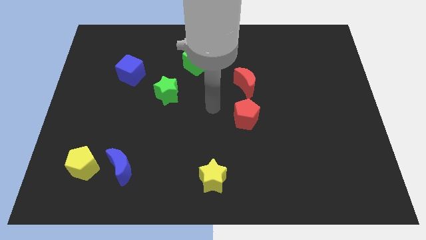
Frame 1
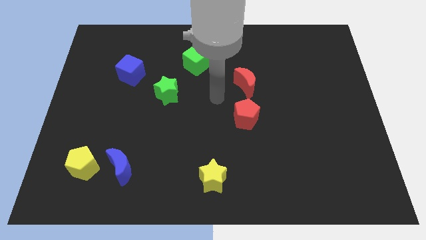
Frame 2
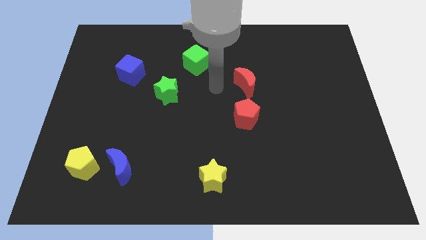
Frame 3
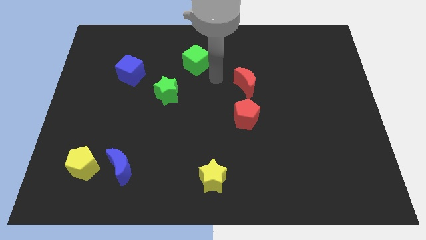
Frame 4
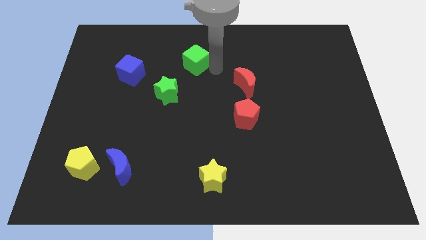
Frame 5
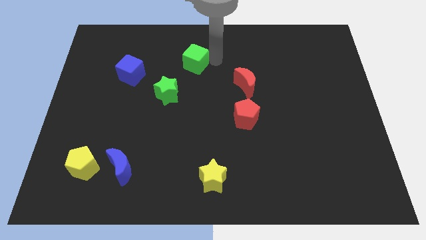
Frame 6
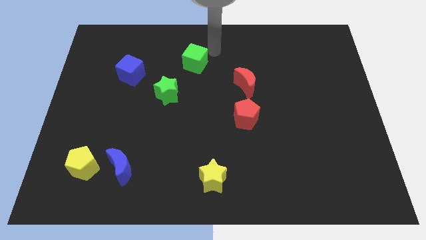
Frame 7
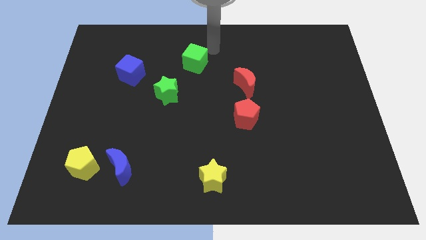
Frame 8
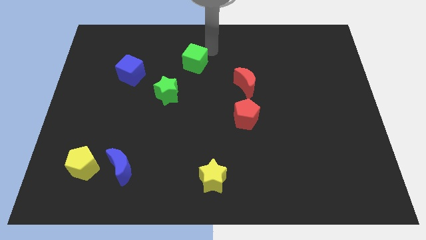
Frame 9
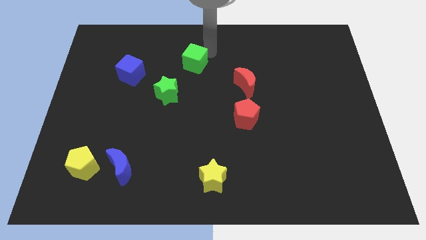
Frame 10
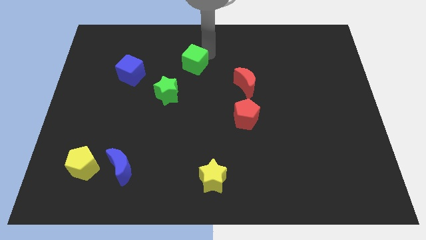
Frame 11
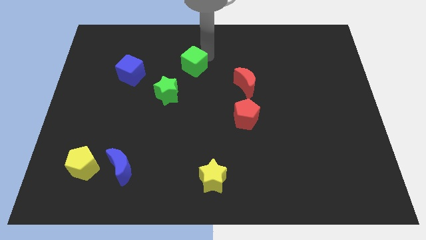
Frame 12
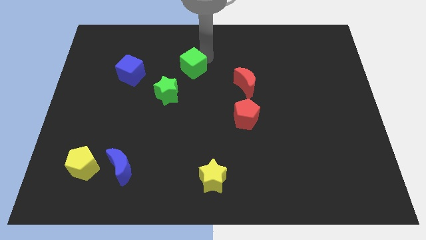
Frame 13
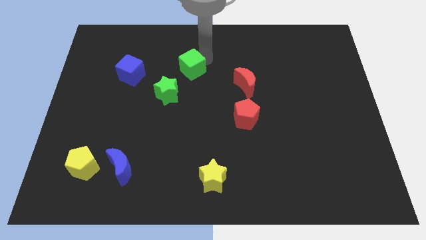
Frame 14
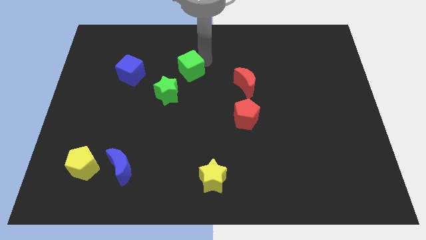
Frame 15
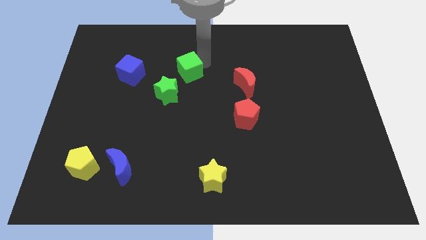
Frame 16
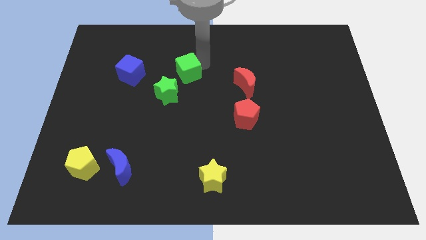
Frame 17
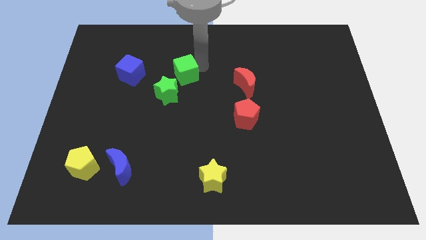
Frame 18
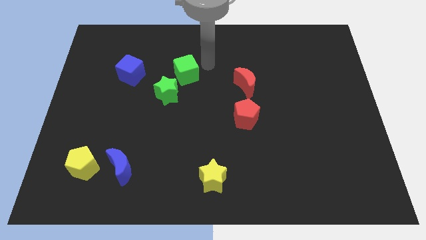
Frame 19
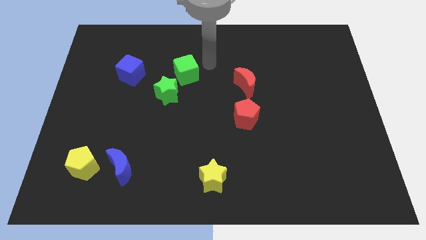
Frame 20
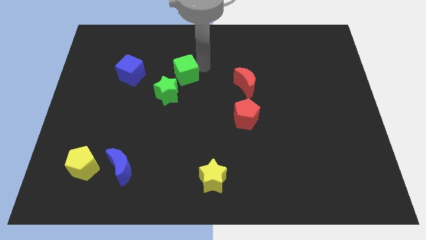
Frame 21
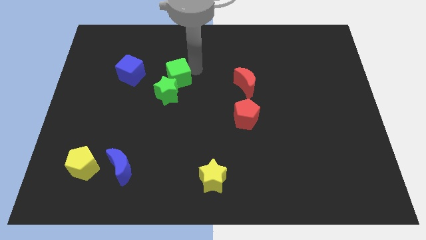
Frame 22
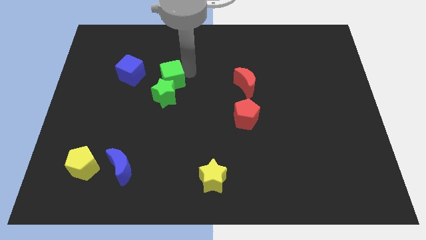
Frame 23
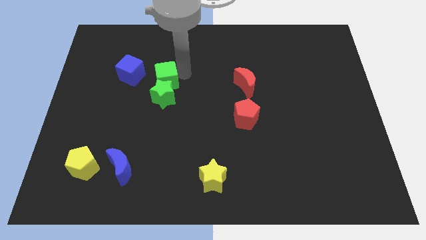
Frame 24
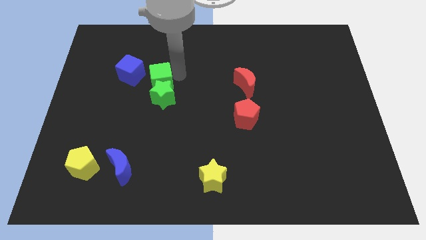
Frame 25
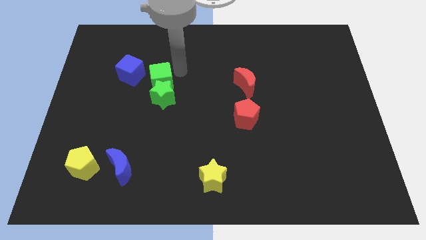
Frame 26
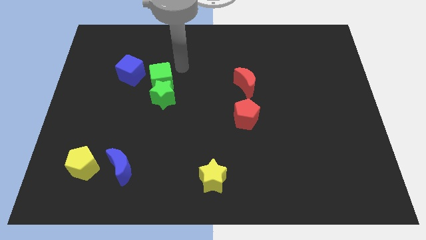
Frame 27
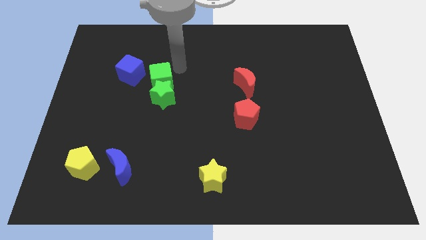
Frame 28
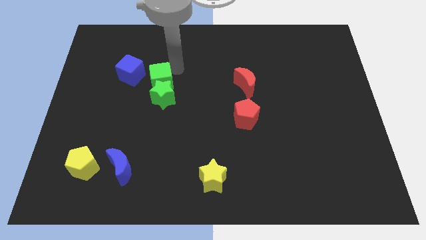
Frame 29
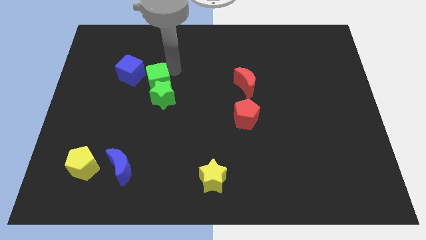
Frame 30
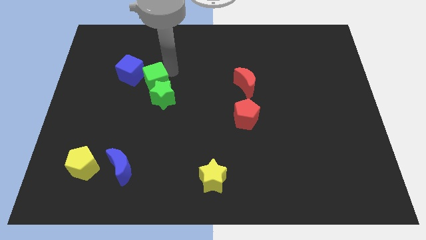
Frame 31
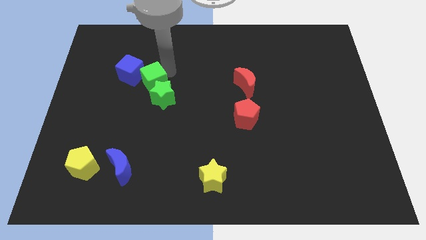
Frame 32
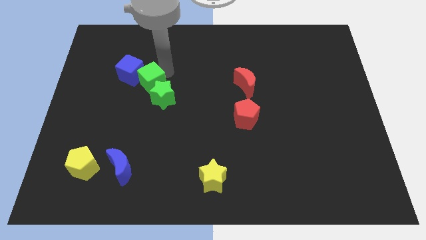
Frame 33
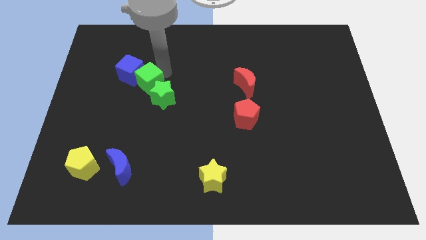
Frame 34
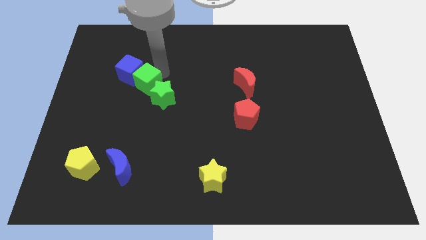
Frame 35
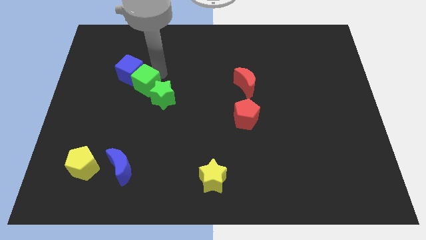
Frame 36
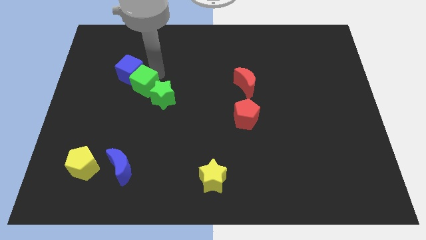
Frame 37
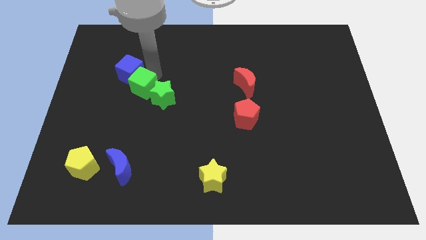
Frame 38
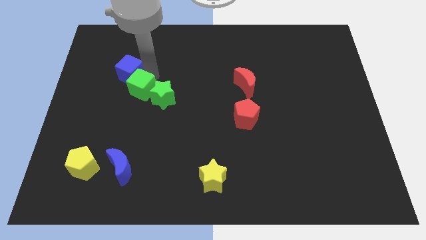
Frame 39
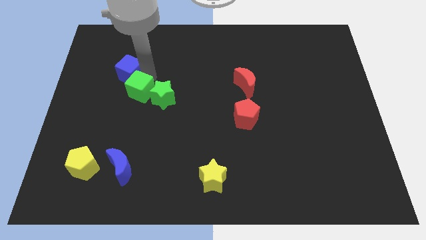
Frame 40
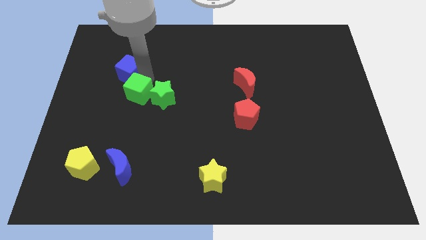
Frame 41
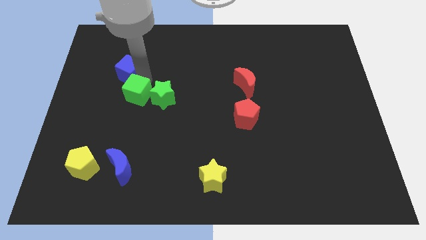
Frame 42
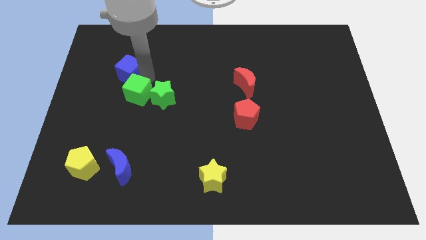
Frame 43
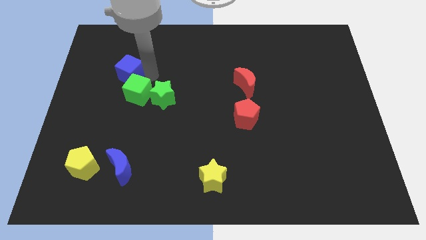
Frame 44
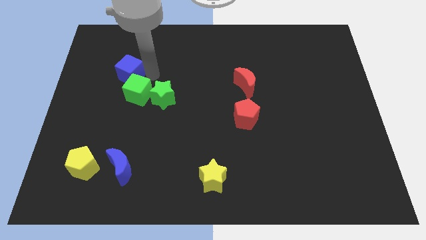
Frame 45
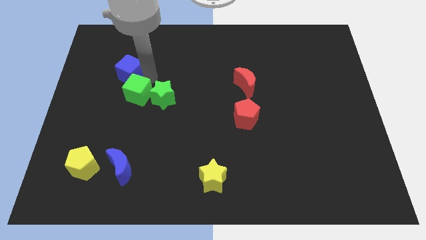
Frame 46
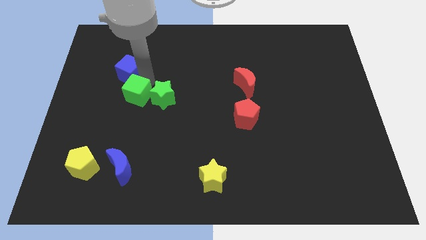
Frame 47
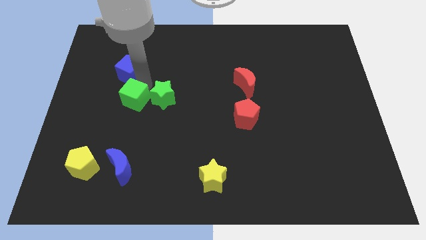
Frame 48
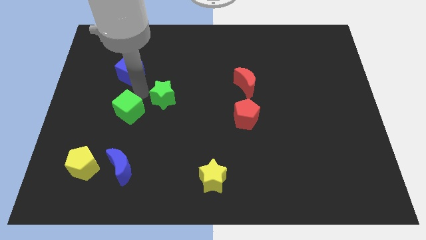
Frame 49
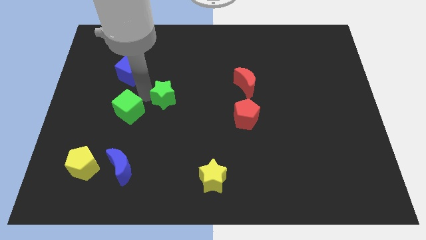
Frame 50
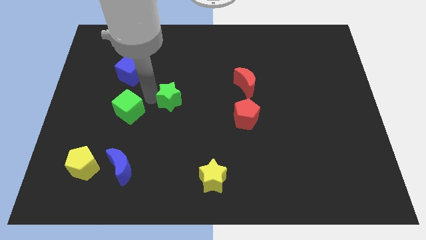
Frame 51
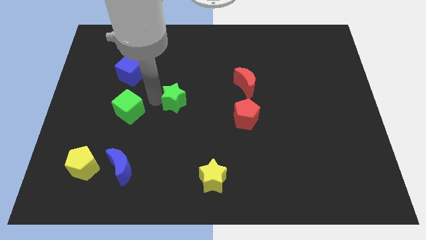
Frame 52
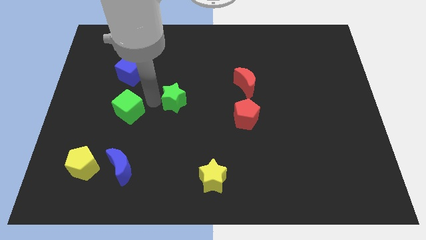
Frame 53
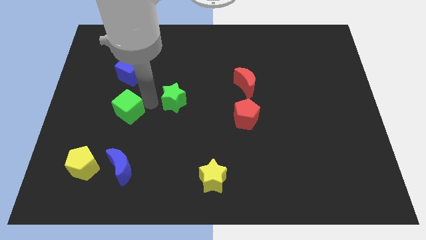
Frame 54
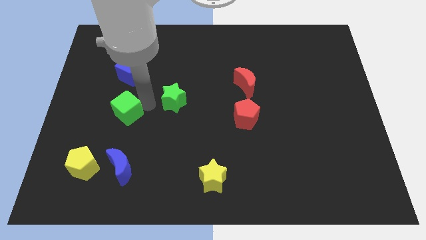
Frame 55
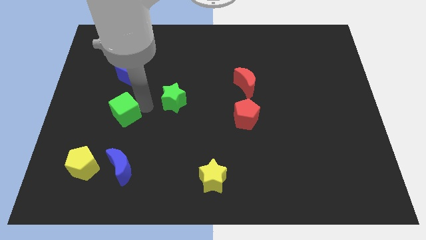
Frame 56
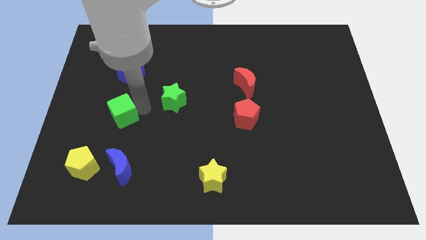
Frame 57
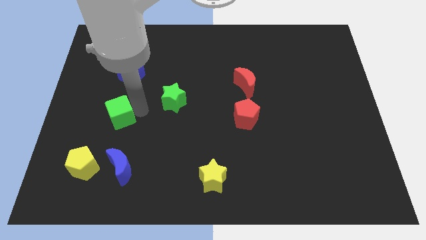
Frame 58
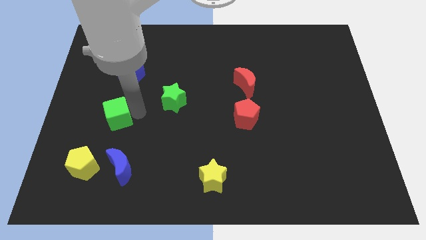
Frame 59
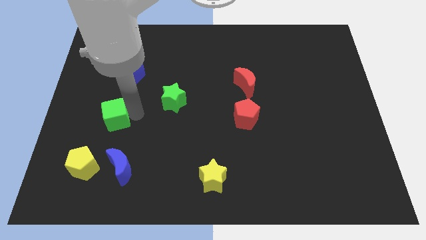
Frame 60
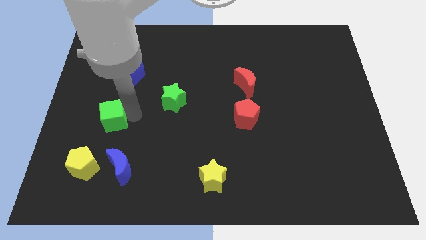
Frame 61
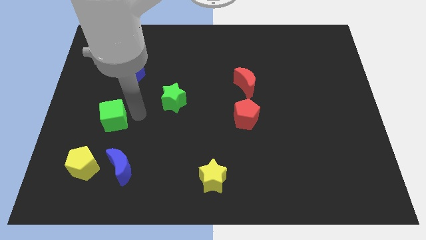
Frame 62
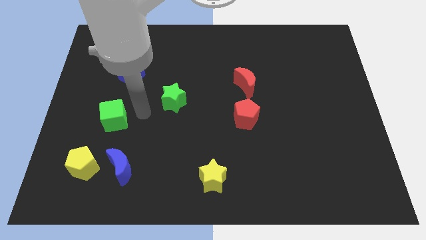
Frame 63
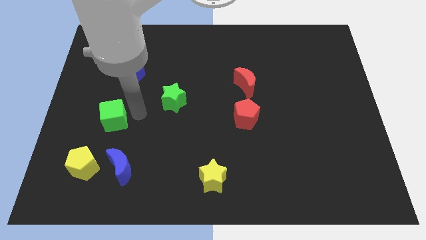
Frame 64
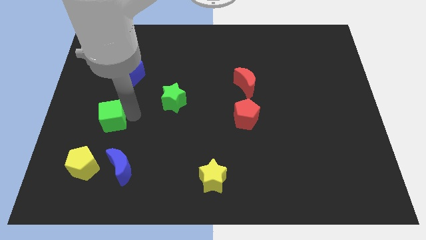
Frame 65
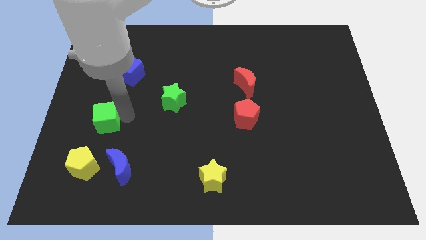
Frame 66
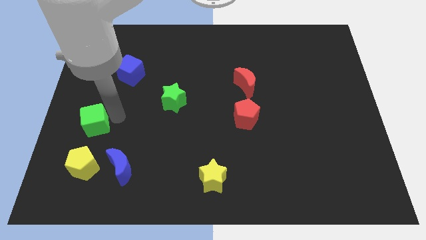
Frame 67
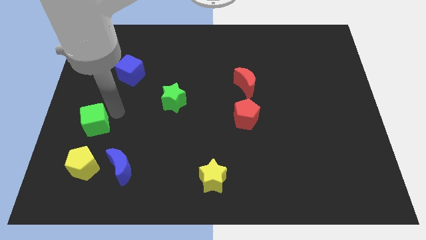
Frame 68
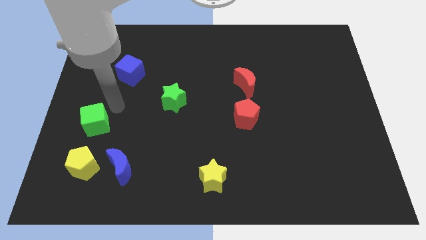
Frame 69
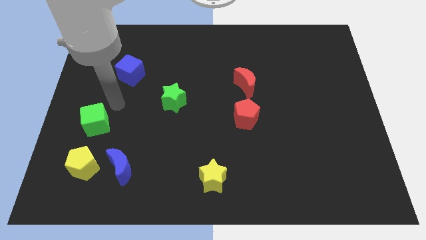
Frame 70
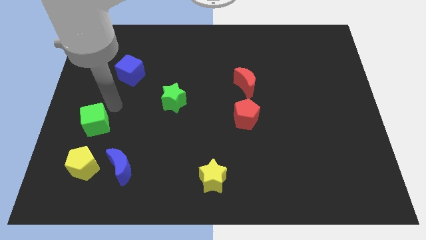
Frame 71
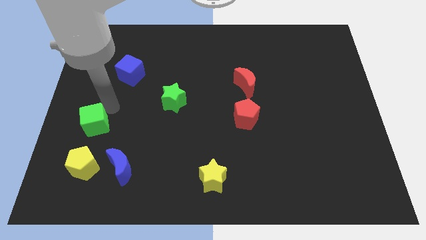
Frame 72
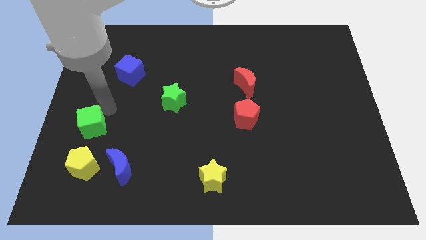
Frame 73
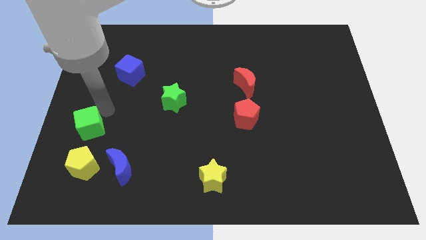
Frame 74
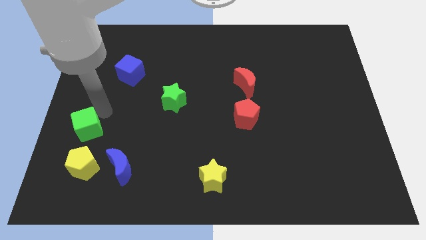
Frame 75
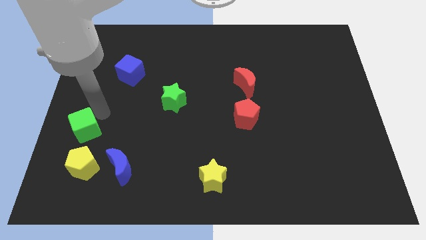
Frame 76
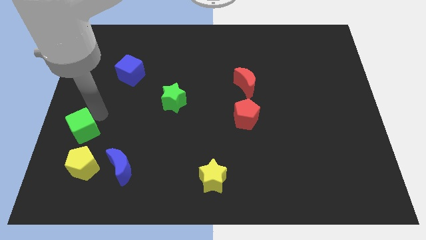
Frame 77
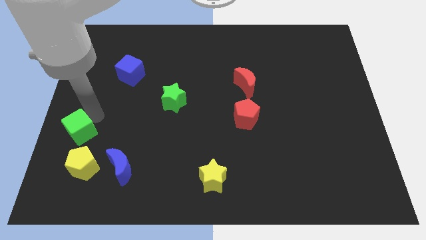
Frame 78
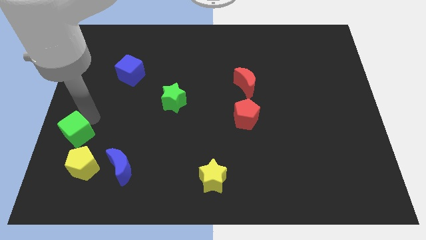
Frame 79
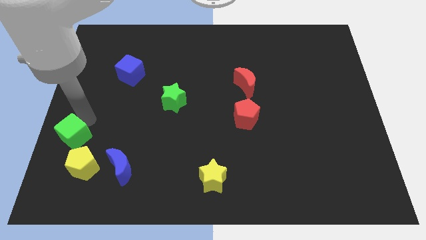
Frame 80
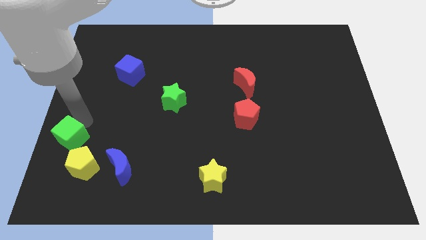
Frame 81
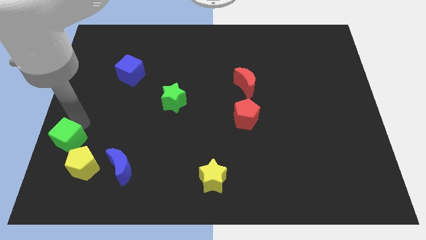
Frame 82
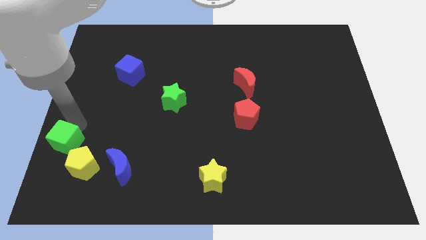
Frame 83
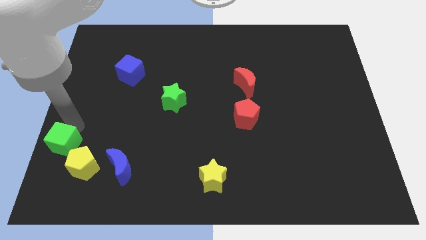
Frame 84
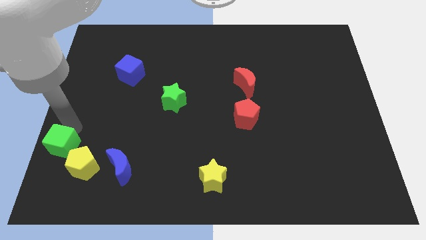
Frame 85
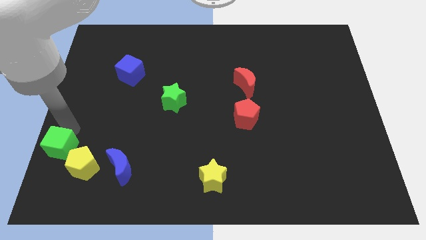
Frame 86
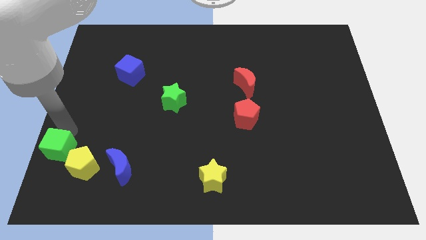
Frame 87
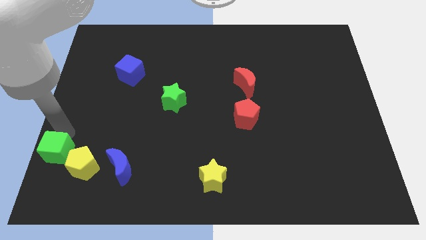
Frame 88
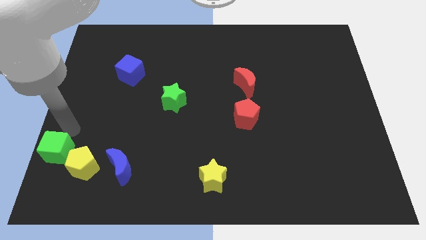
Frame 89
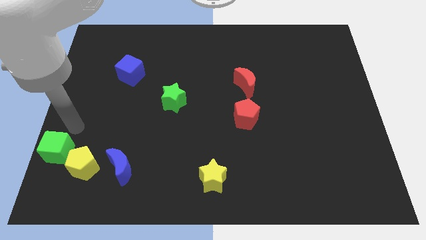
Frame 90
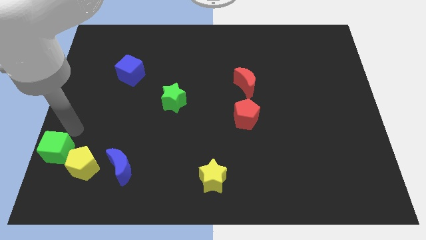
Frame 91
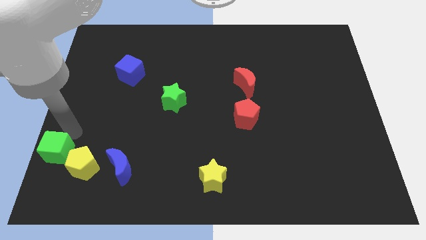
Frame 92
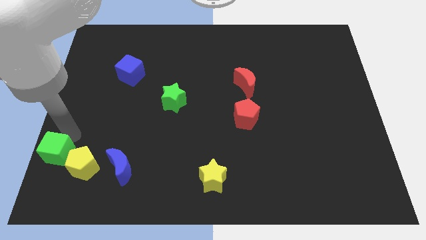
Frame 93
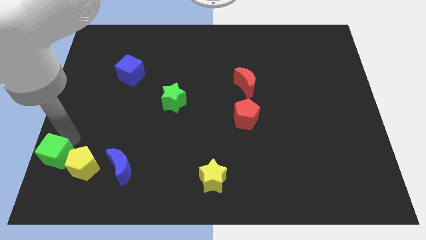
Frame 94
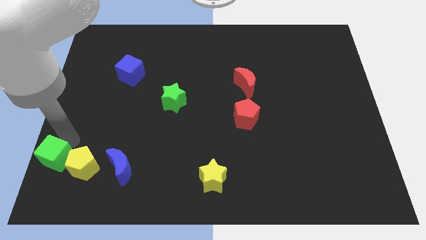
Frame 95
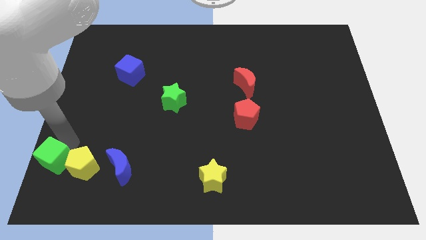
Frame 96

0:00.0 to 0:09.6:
move the green cube to the bottom left of the board
